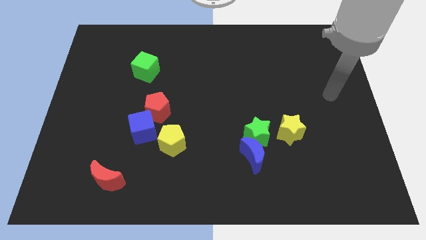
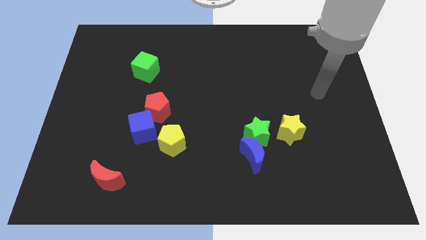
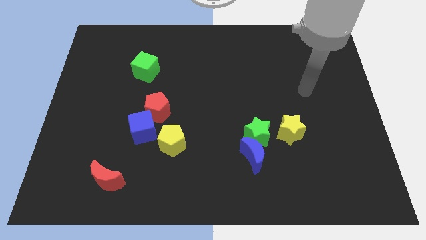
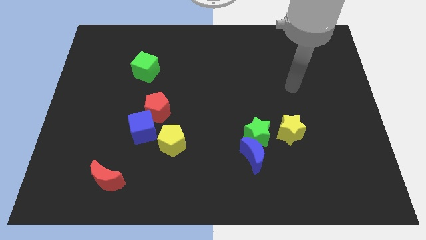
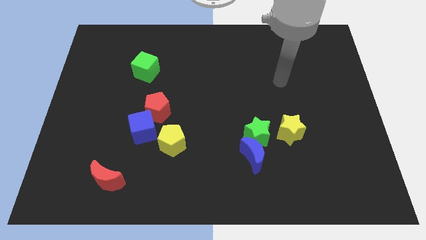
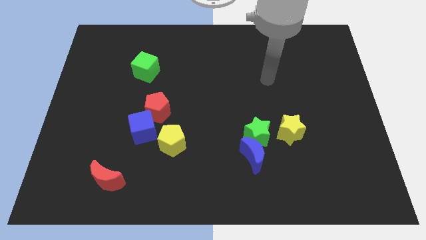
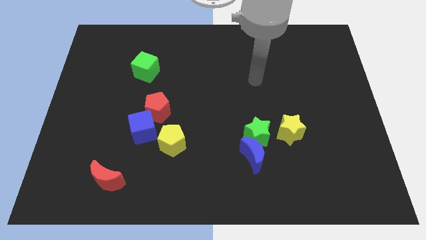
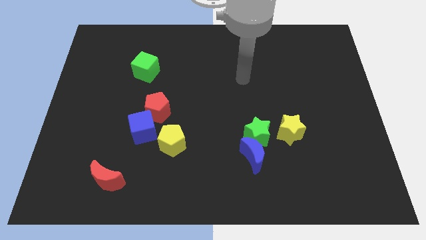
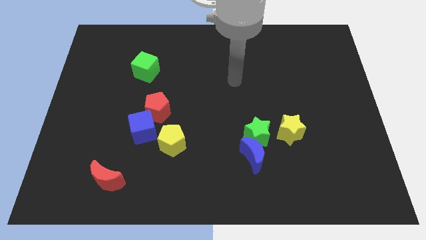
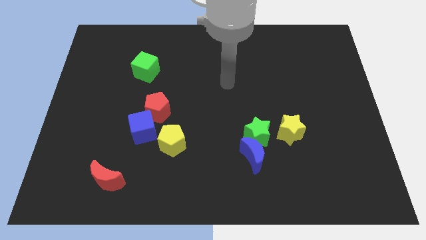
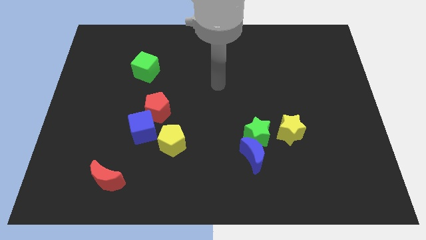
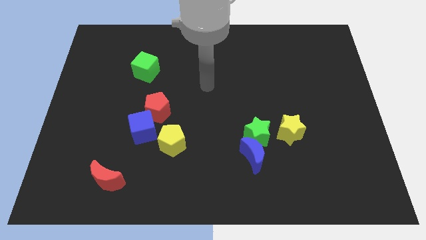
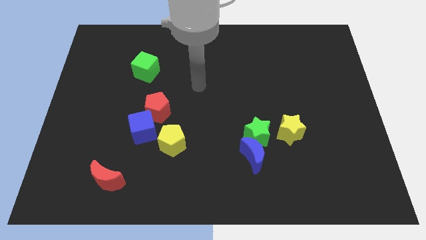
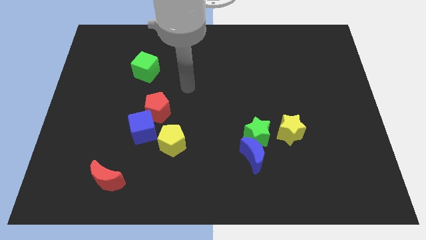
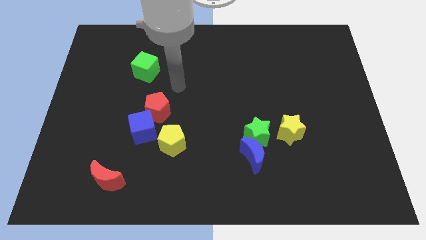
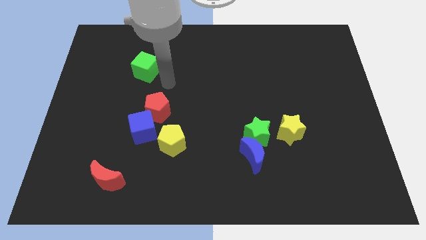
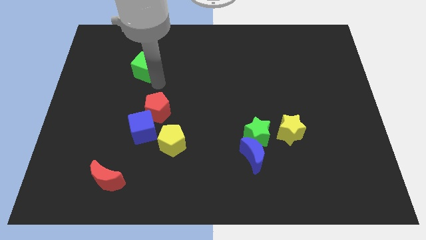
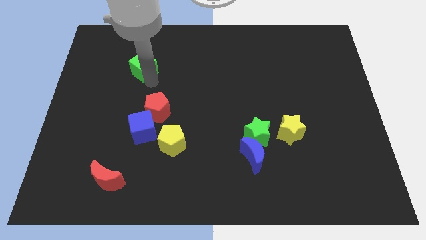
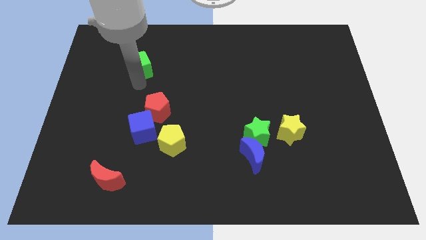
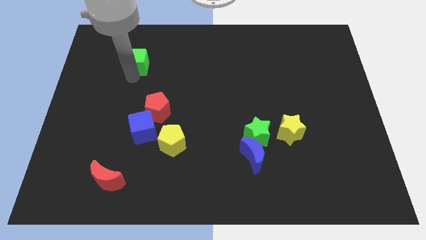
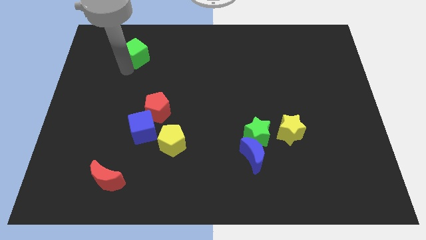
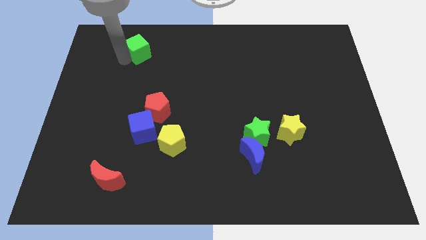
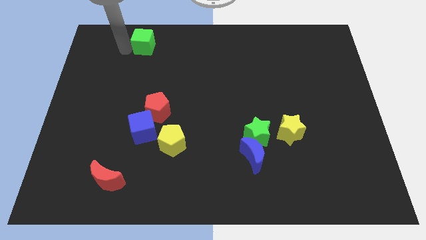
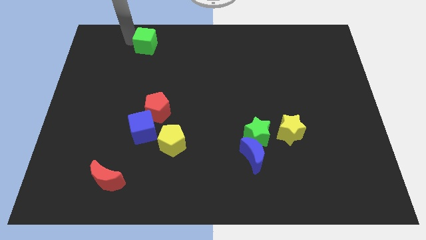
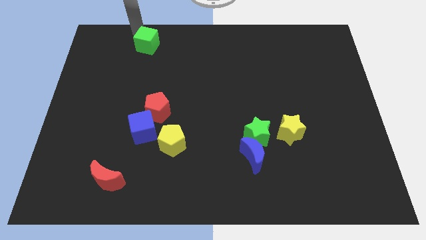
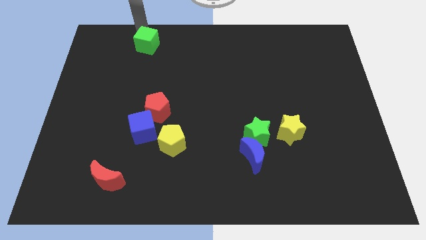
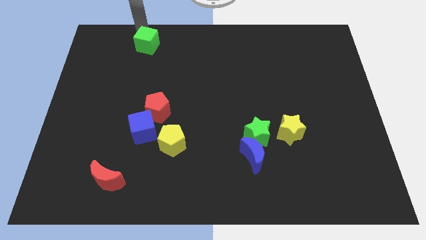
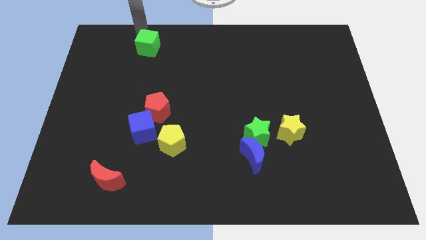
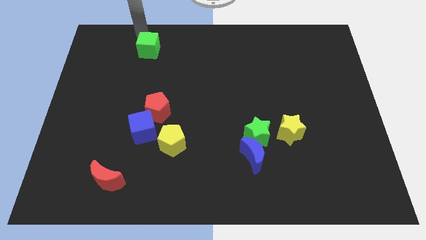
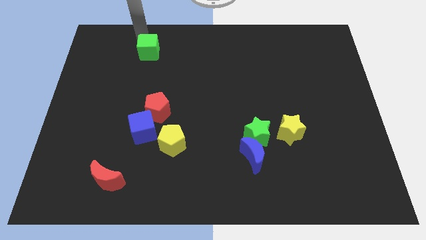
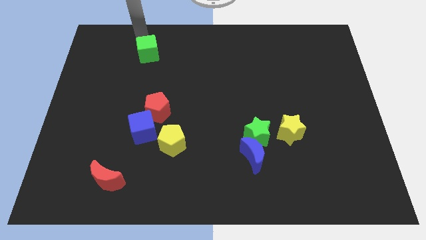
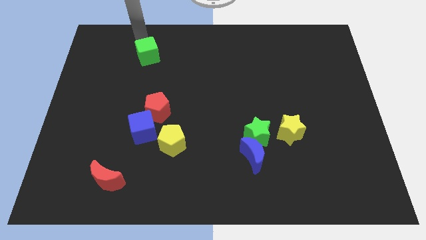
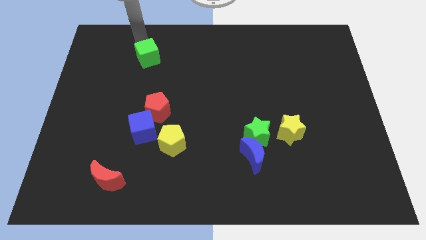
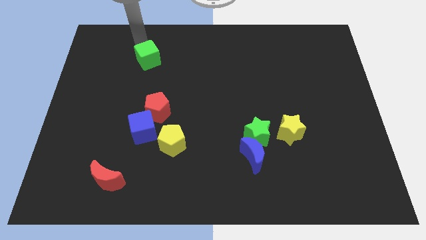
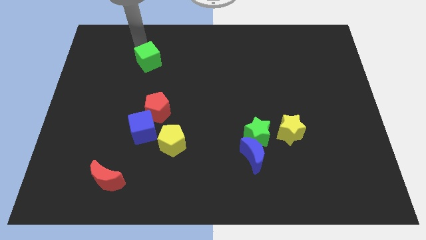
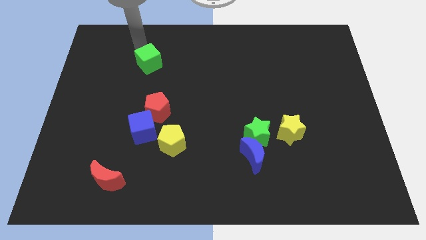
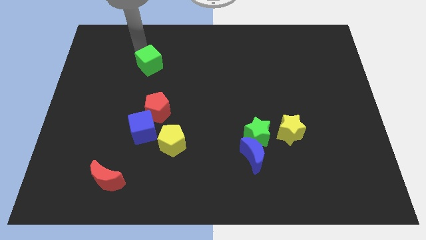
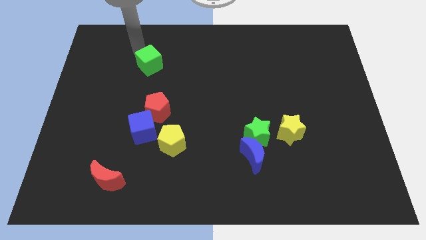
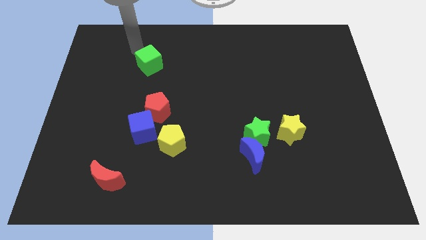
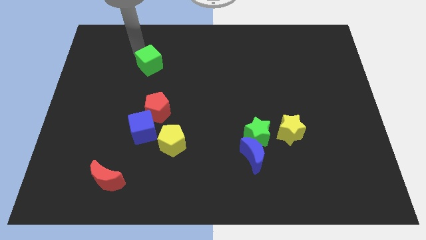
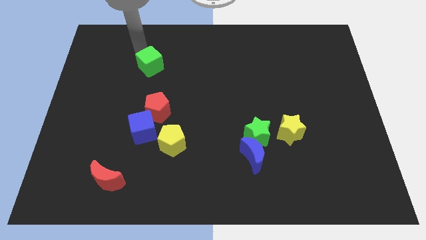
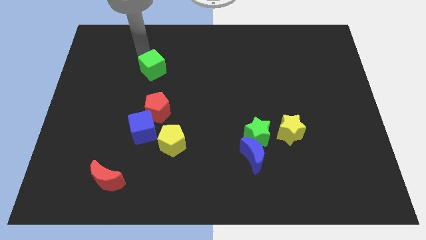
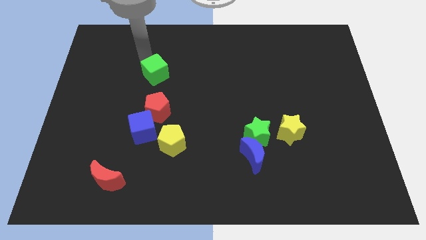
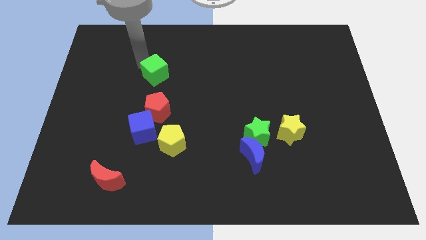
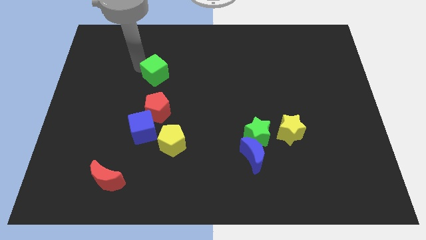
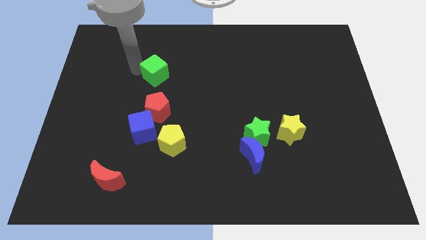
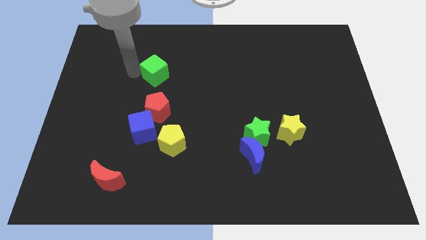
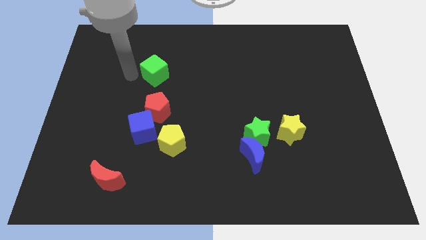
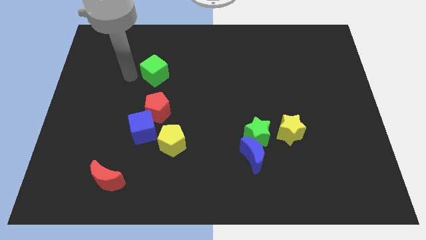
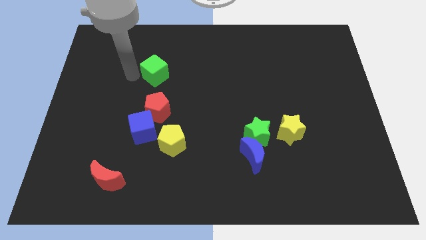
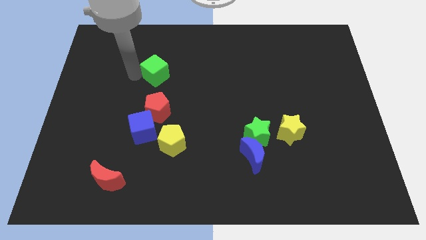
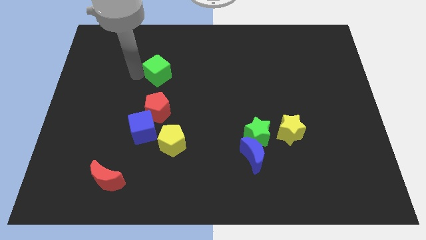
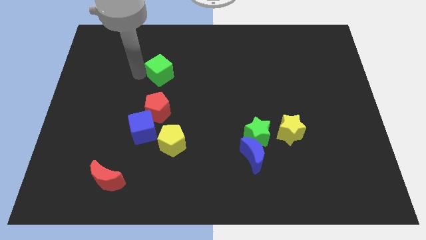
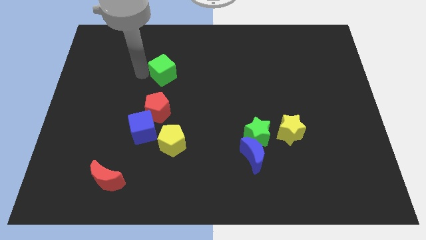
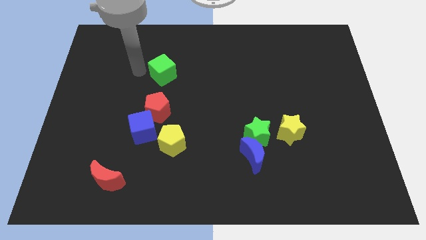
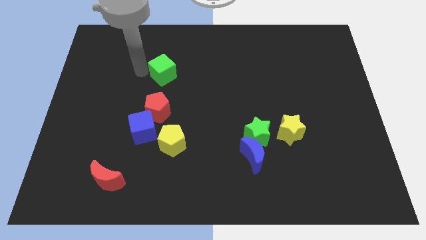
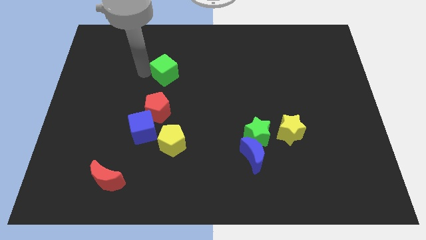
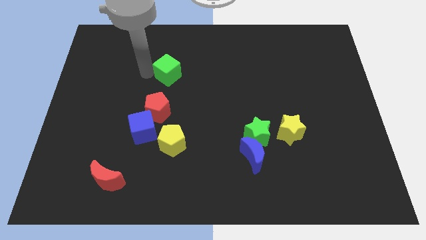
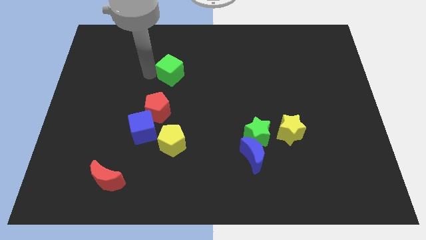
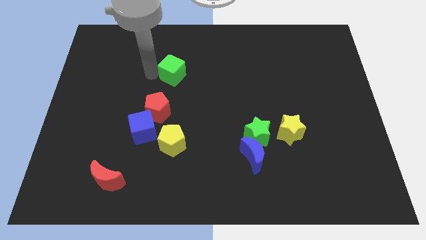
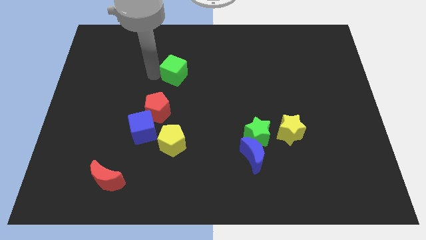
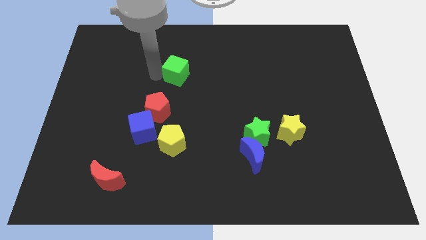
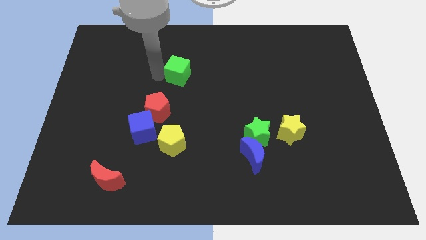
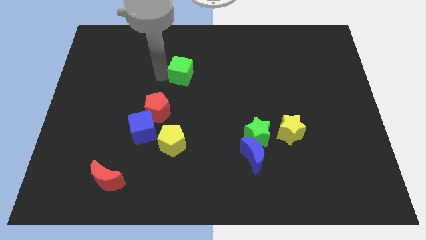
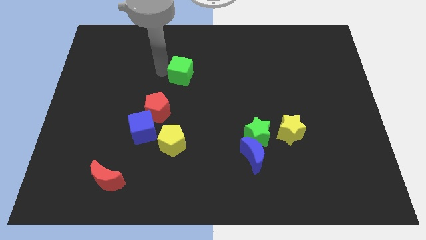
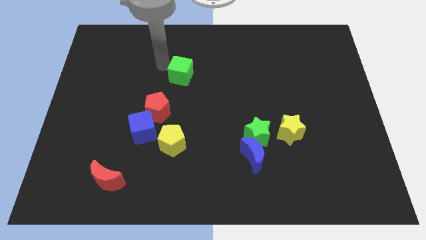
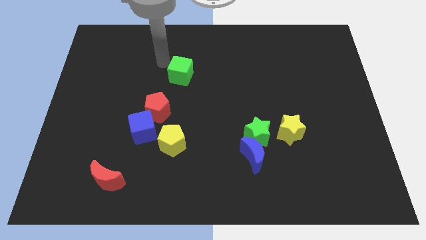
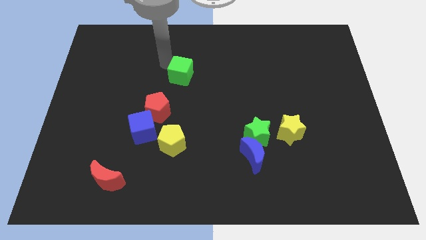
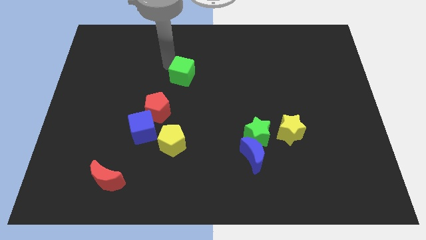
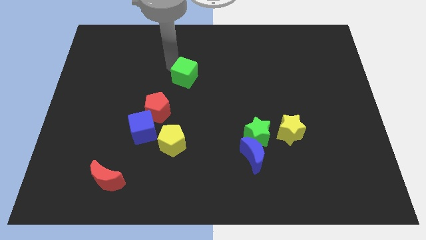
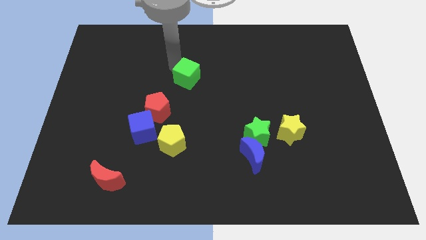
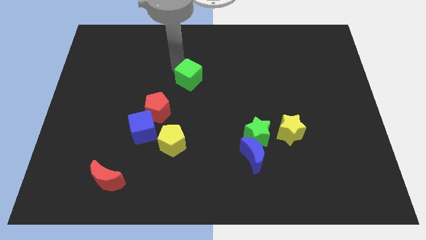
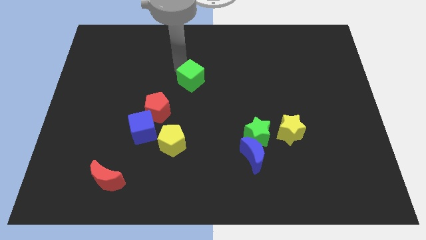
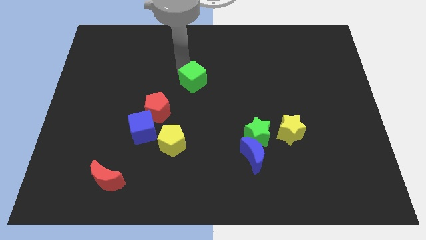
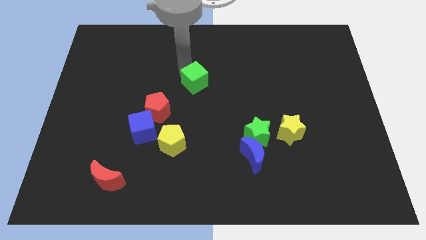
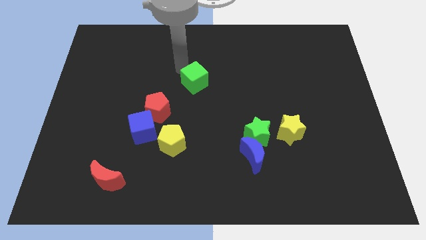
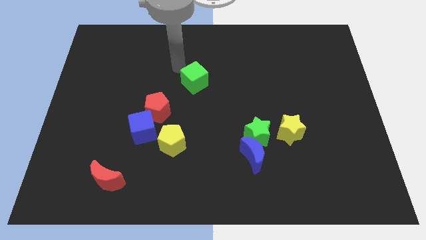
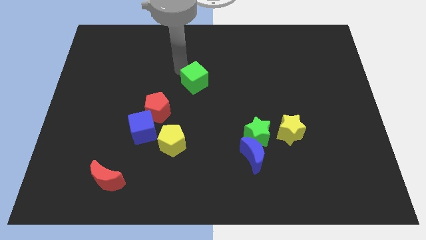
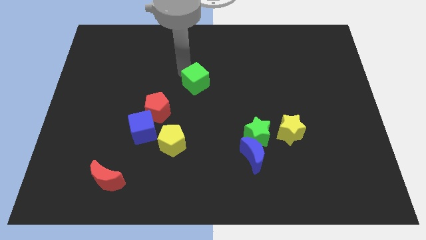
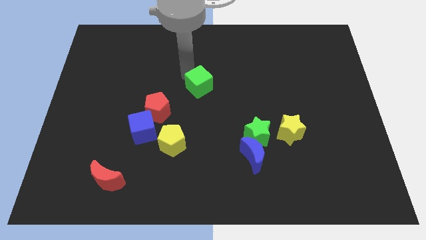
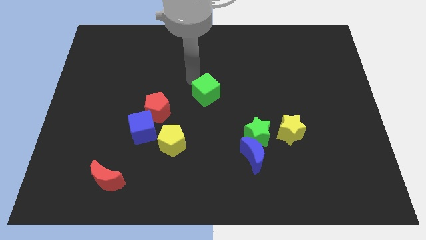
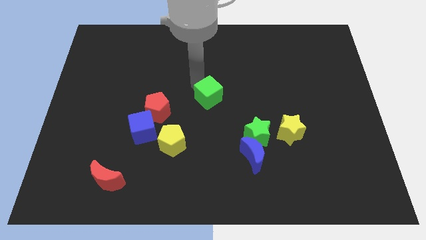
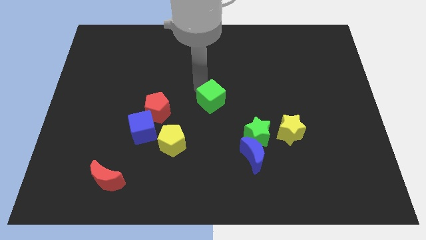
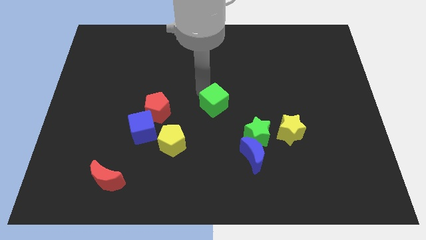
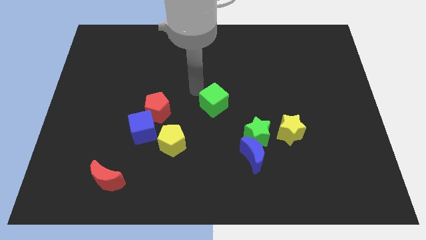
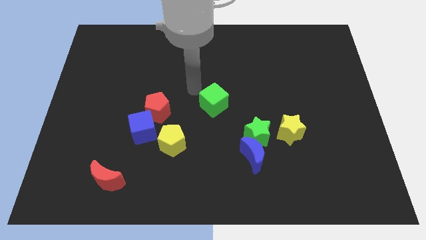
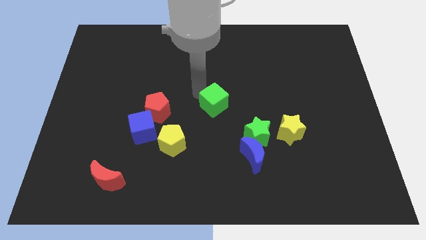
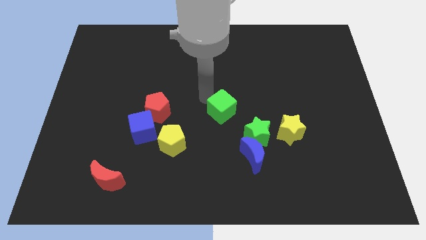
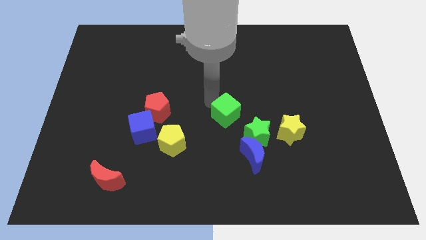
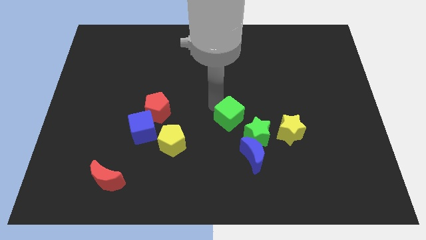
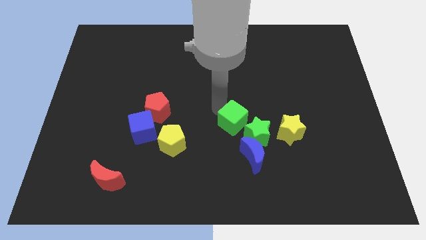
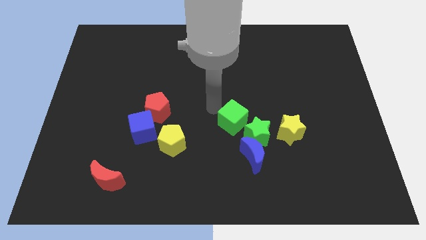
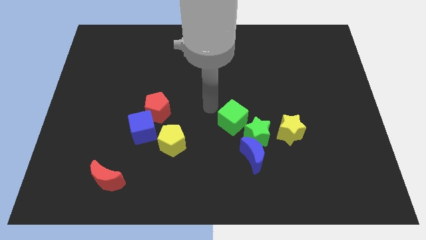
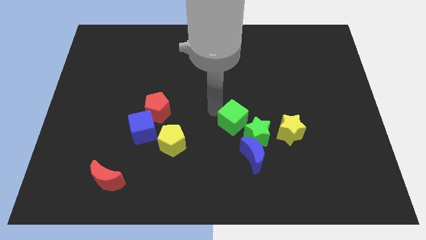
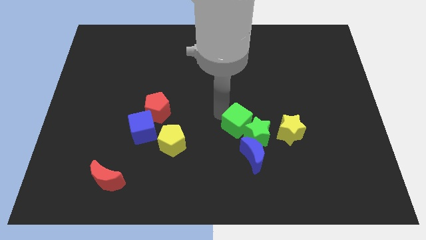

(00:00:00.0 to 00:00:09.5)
put the green cube towards the green star
